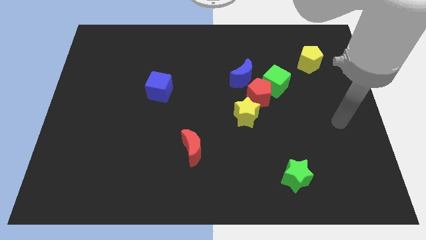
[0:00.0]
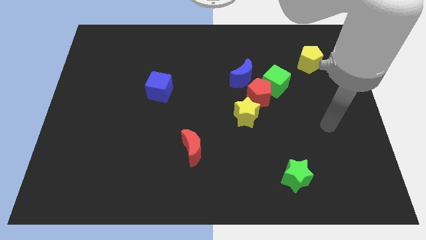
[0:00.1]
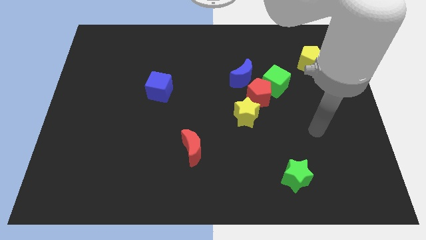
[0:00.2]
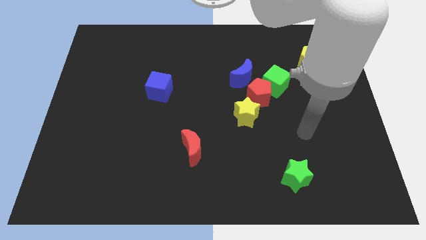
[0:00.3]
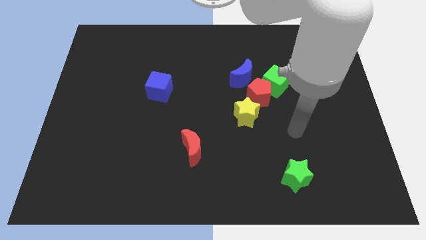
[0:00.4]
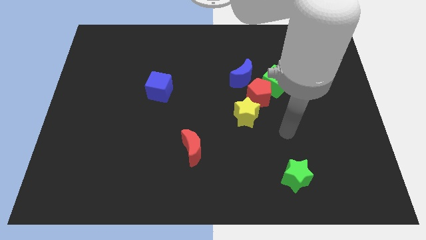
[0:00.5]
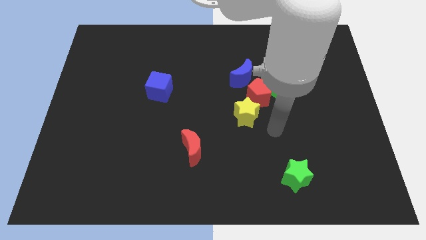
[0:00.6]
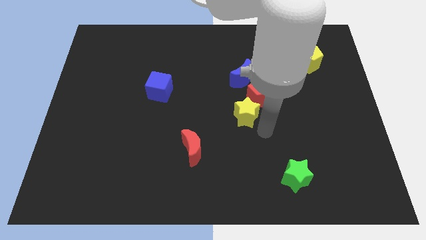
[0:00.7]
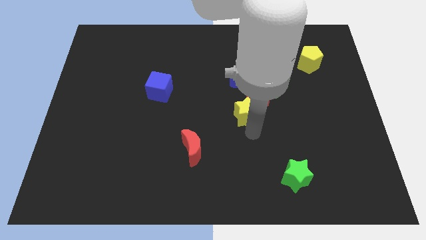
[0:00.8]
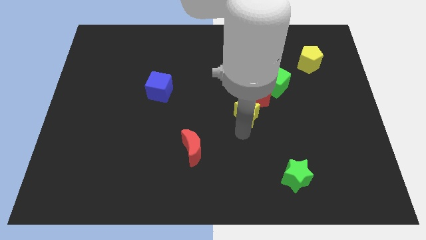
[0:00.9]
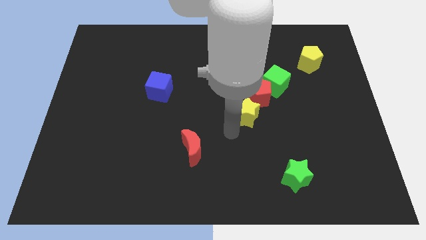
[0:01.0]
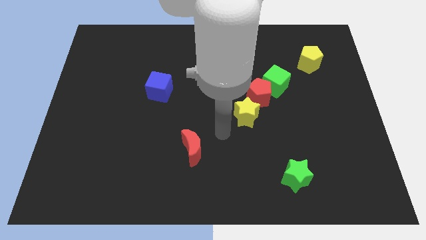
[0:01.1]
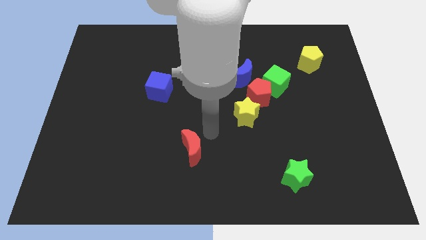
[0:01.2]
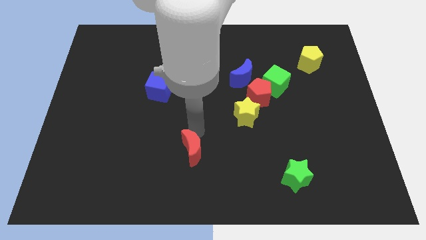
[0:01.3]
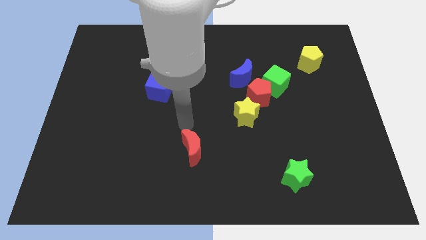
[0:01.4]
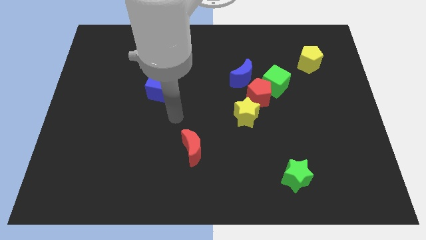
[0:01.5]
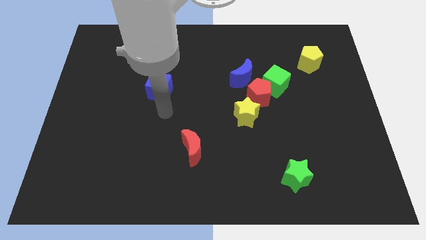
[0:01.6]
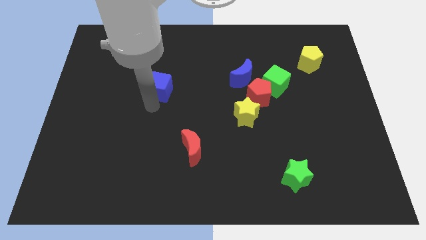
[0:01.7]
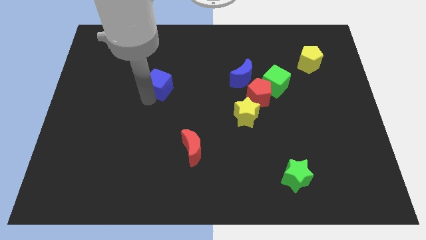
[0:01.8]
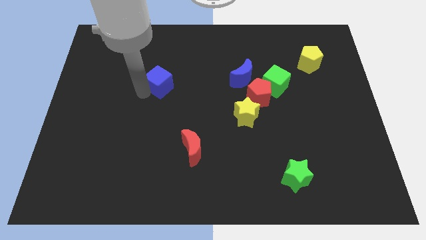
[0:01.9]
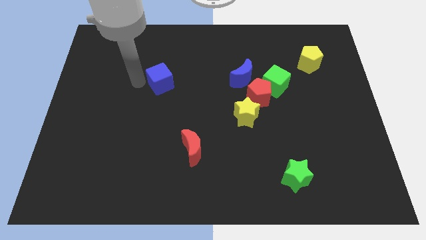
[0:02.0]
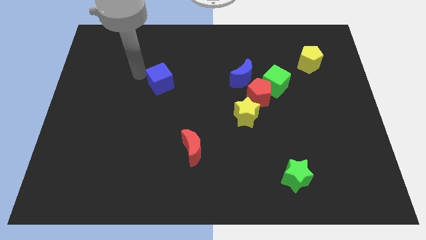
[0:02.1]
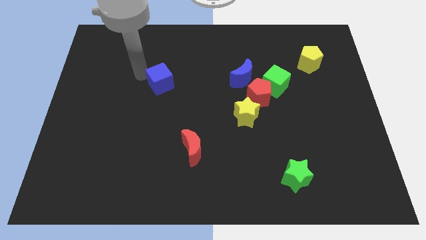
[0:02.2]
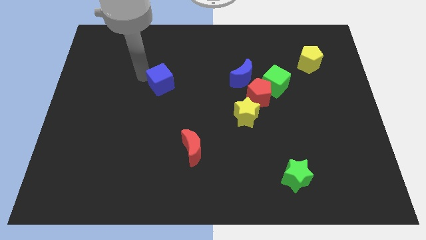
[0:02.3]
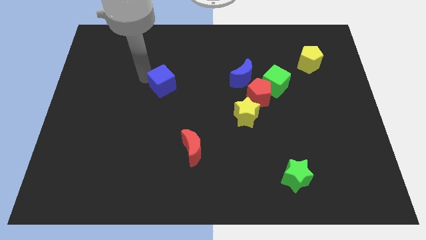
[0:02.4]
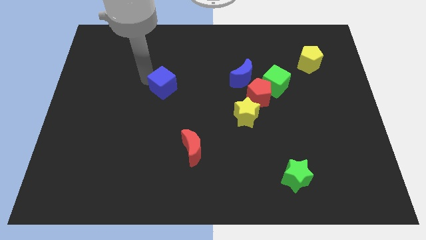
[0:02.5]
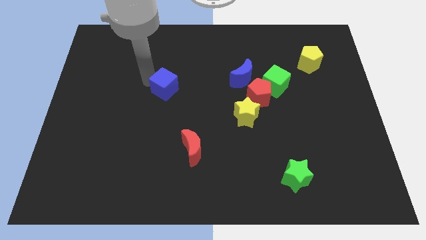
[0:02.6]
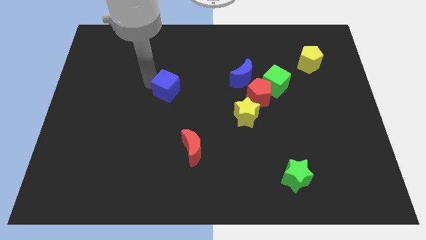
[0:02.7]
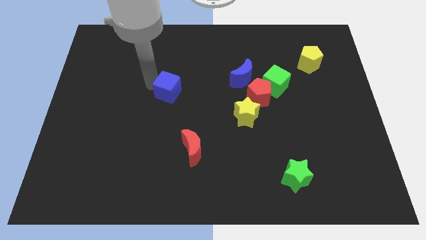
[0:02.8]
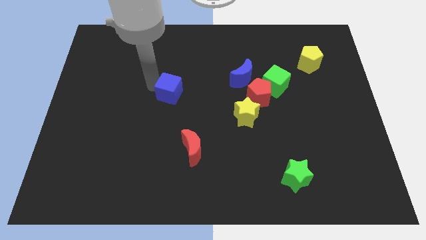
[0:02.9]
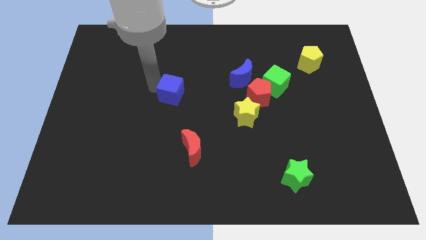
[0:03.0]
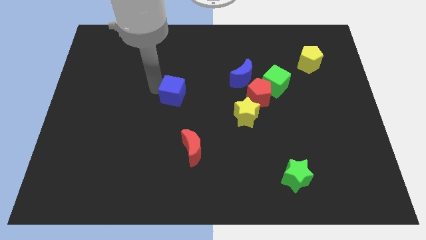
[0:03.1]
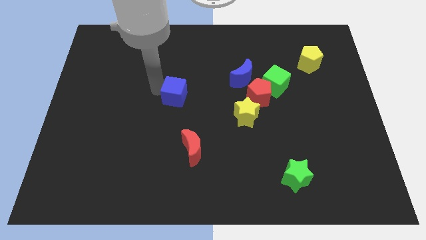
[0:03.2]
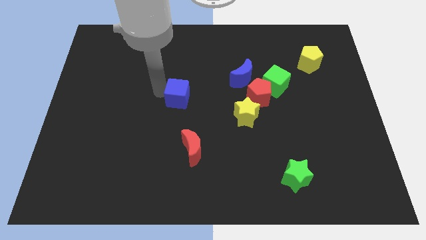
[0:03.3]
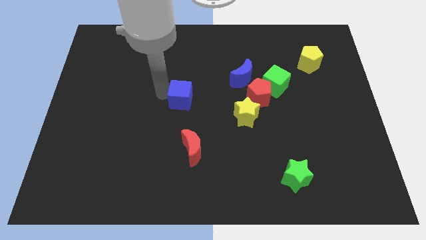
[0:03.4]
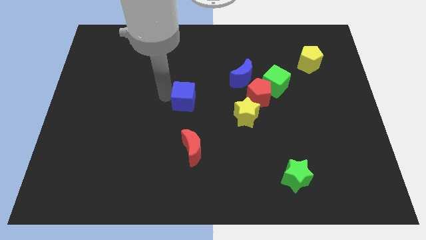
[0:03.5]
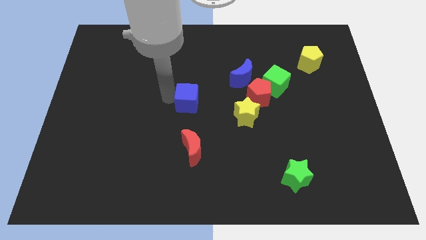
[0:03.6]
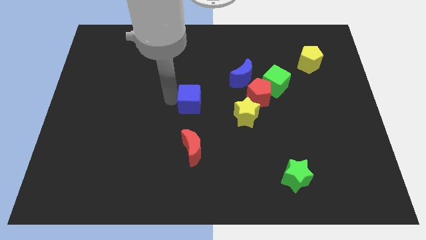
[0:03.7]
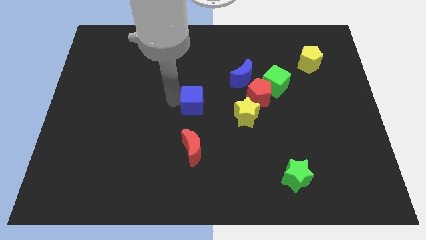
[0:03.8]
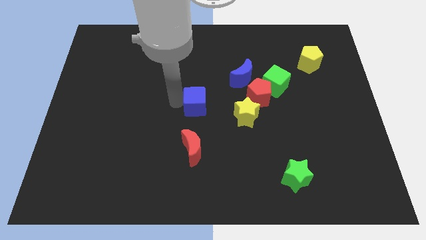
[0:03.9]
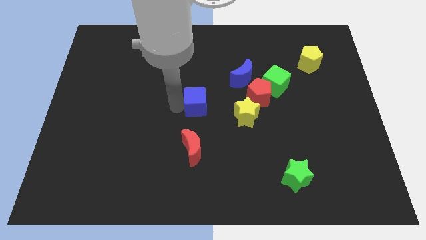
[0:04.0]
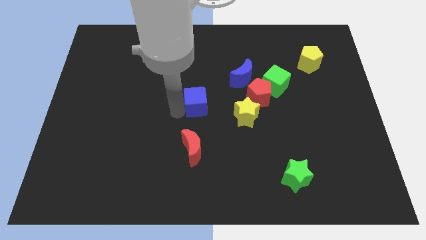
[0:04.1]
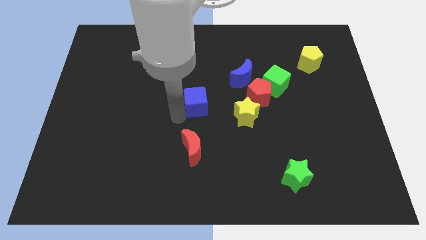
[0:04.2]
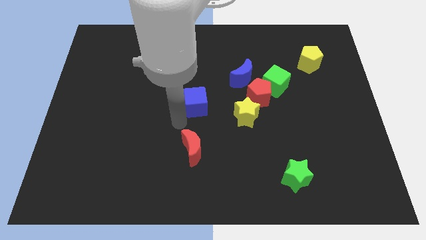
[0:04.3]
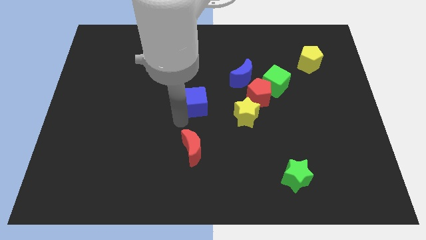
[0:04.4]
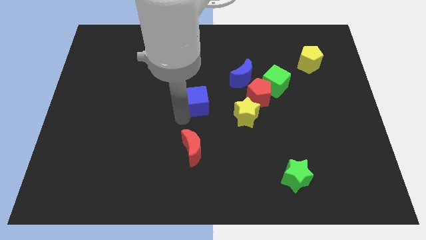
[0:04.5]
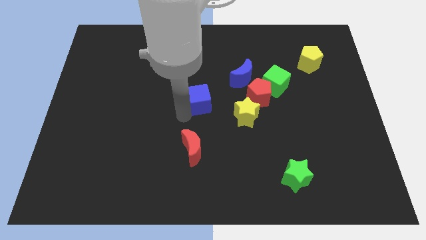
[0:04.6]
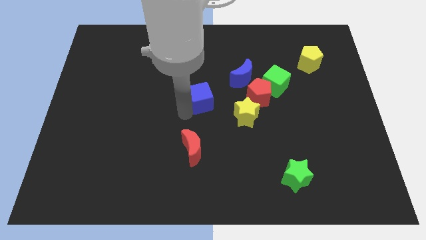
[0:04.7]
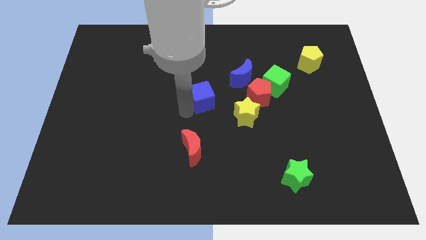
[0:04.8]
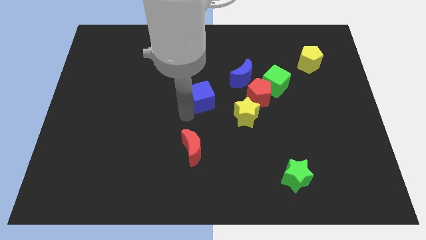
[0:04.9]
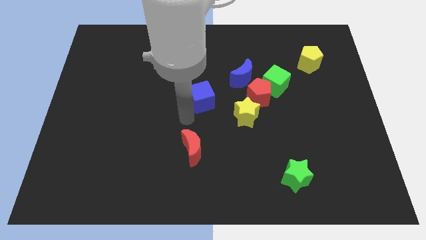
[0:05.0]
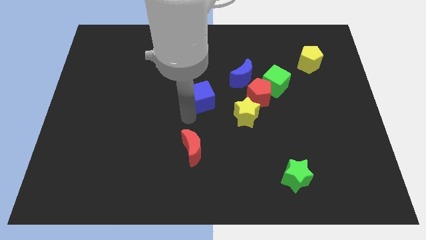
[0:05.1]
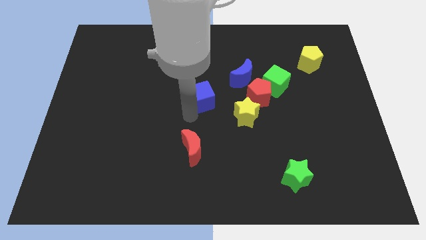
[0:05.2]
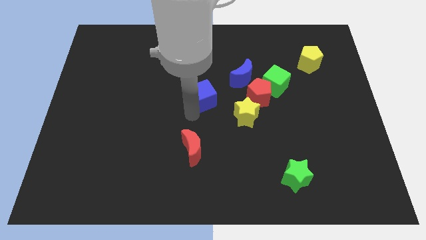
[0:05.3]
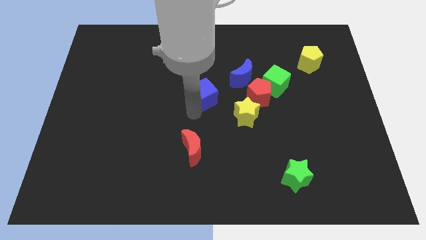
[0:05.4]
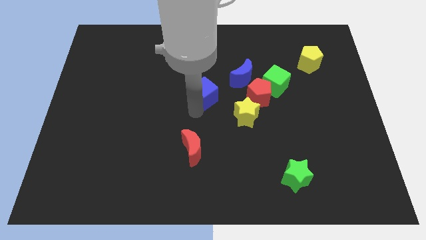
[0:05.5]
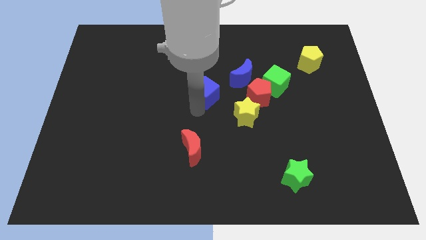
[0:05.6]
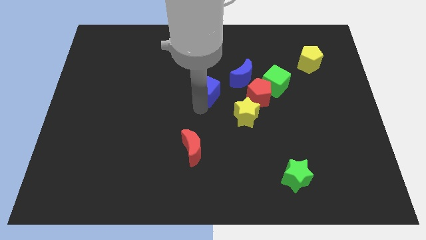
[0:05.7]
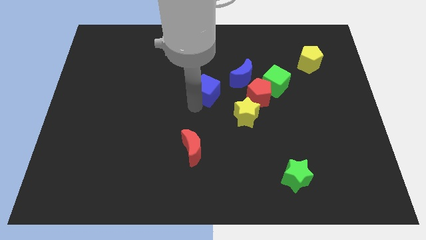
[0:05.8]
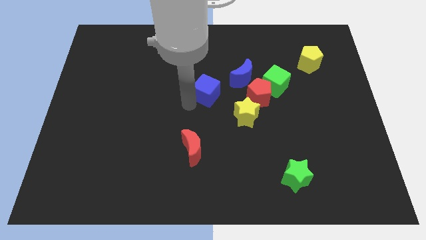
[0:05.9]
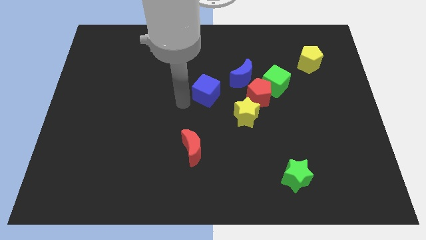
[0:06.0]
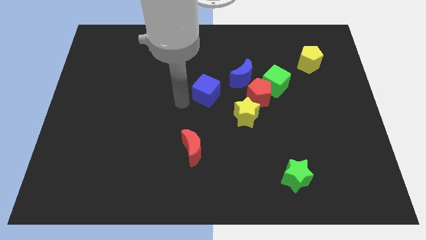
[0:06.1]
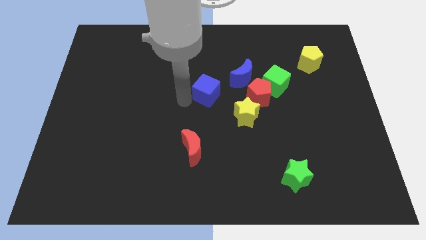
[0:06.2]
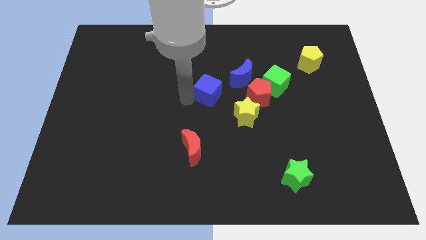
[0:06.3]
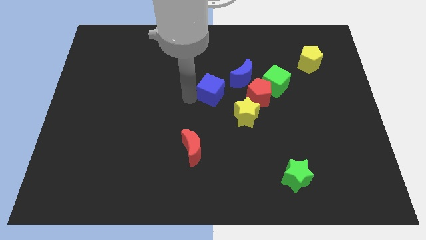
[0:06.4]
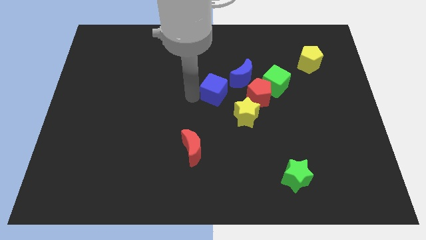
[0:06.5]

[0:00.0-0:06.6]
put the blue cube to the left side of the green cube
